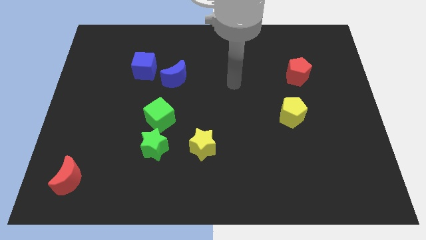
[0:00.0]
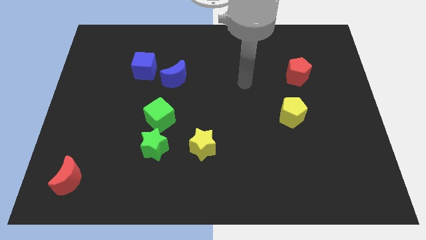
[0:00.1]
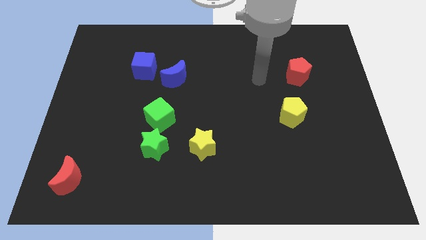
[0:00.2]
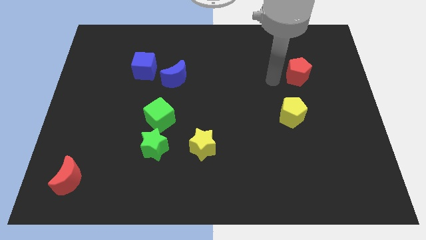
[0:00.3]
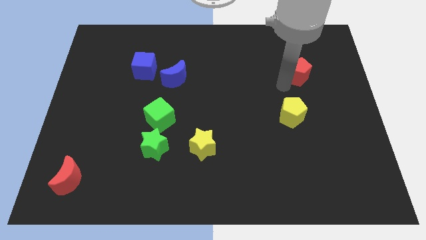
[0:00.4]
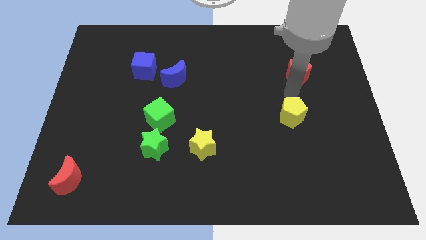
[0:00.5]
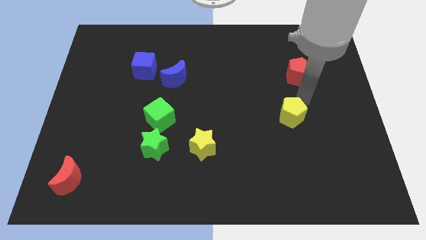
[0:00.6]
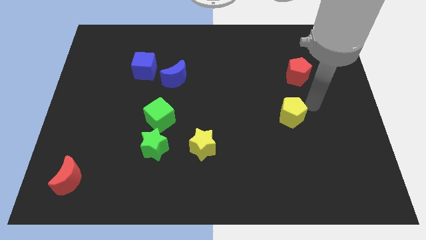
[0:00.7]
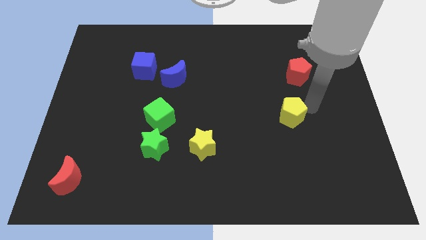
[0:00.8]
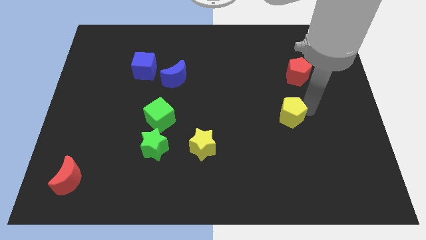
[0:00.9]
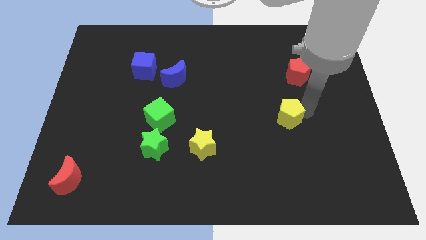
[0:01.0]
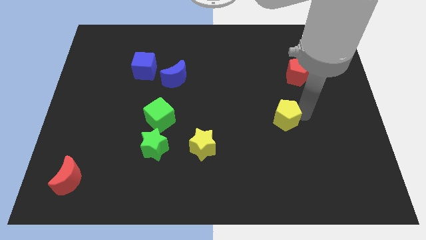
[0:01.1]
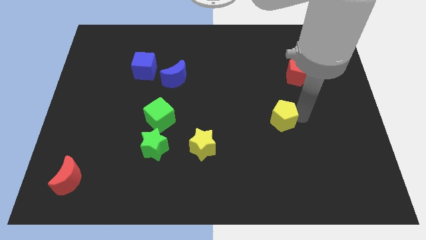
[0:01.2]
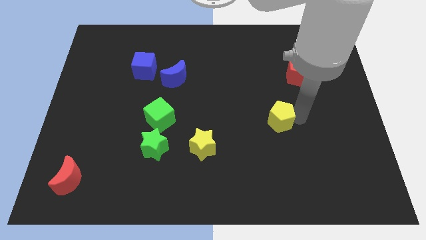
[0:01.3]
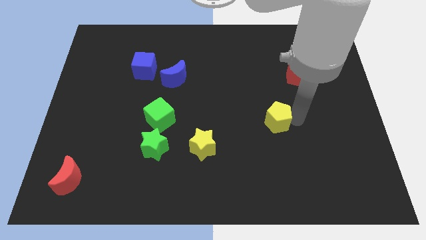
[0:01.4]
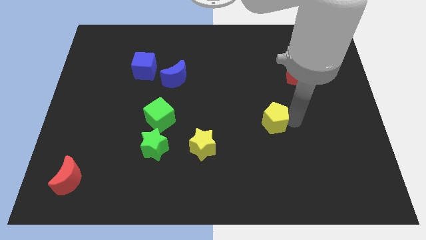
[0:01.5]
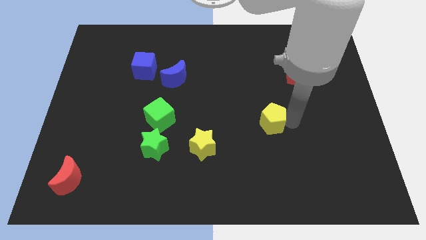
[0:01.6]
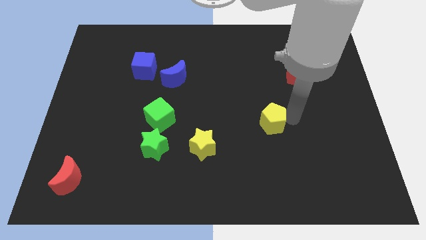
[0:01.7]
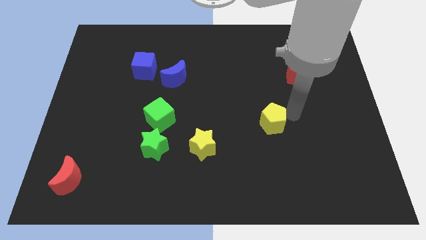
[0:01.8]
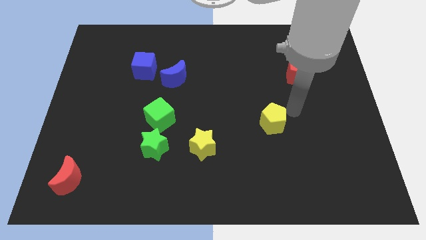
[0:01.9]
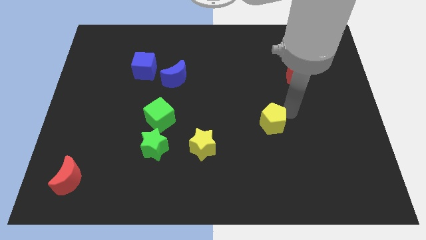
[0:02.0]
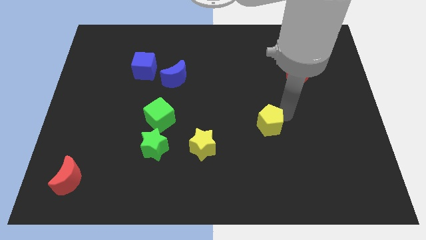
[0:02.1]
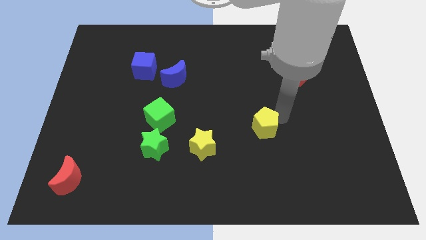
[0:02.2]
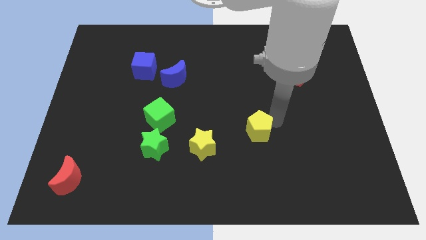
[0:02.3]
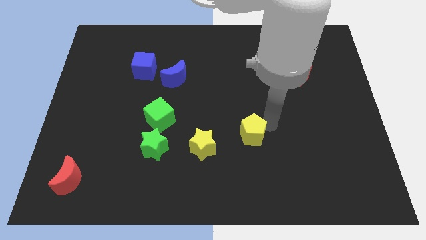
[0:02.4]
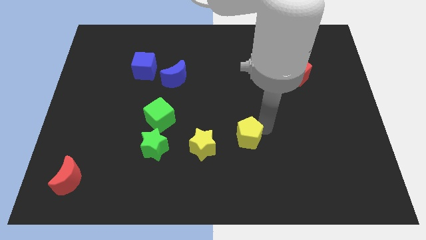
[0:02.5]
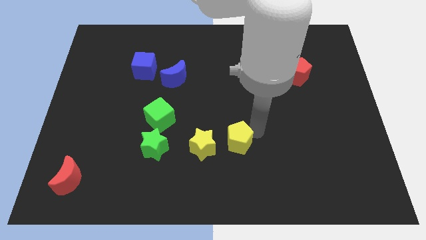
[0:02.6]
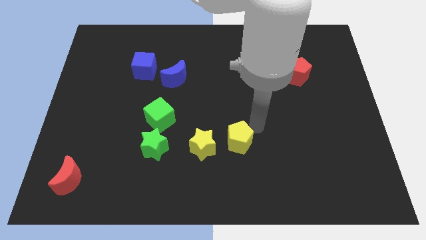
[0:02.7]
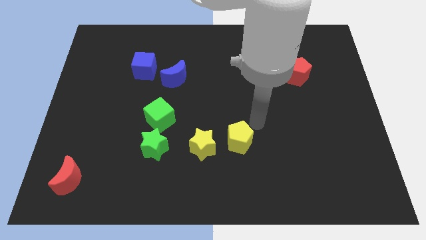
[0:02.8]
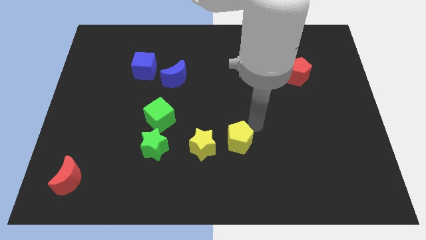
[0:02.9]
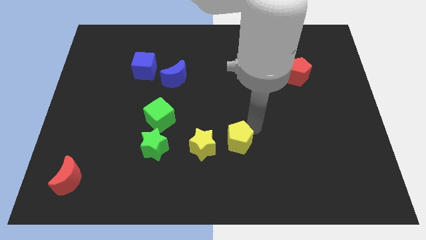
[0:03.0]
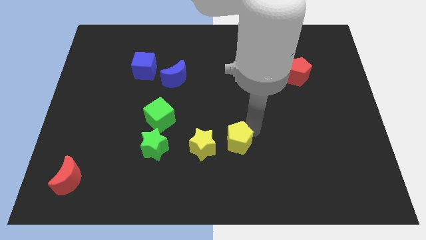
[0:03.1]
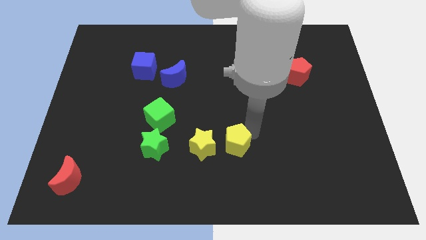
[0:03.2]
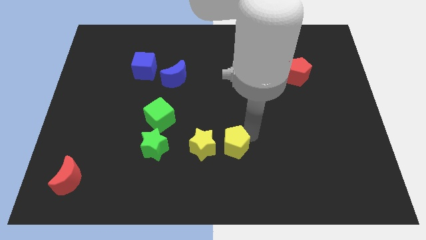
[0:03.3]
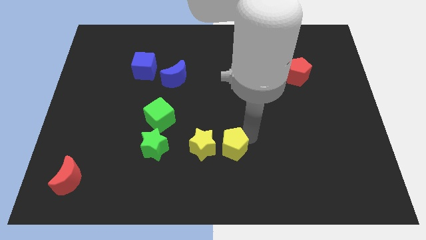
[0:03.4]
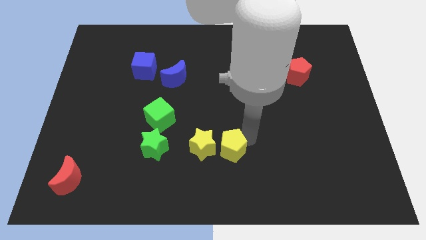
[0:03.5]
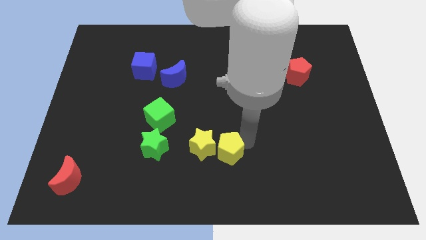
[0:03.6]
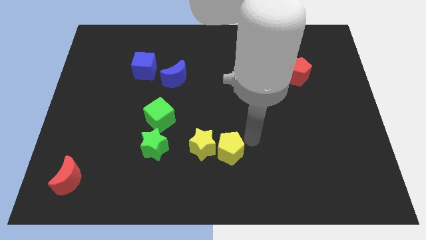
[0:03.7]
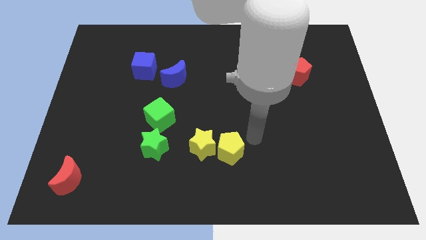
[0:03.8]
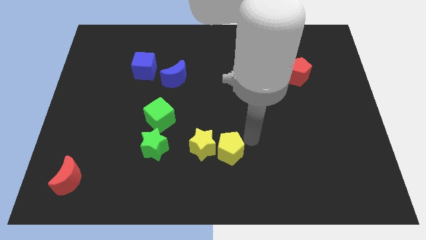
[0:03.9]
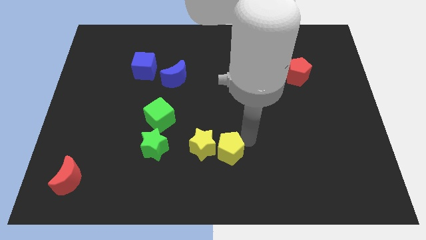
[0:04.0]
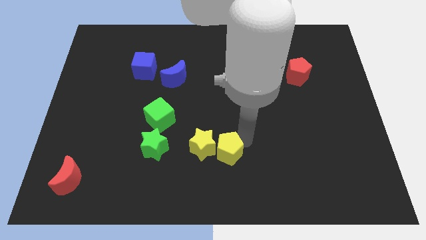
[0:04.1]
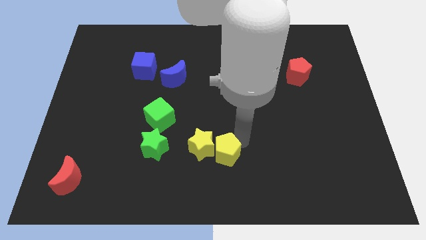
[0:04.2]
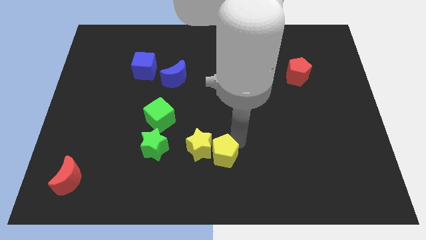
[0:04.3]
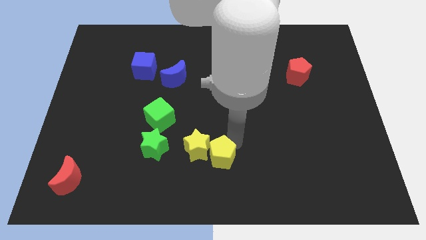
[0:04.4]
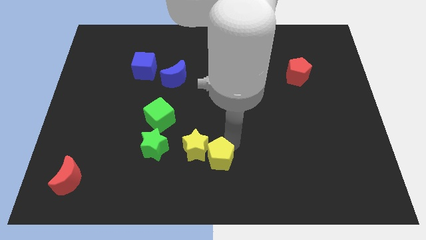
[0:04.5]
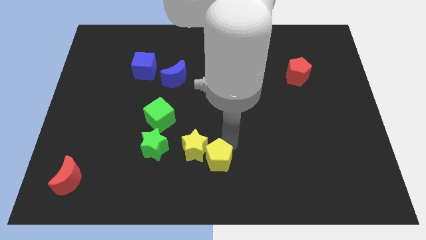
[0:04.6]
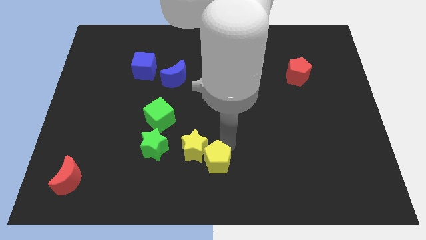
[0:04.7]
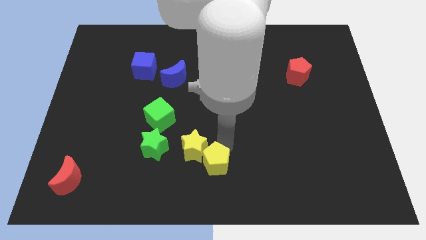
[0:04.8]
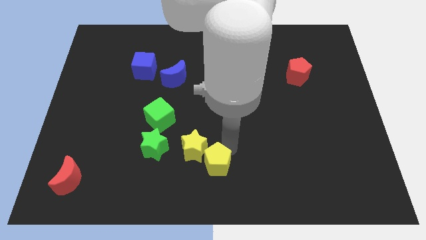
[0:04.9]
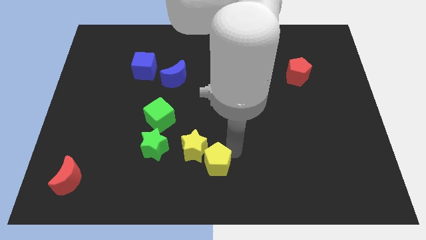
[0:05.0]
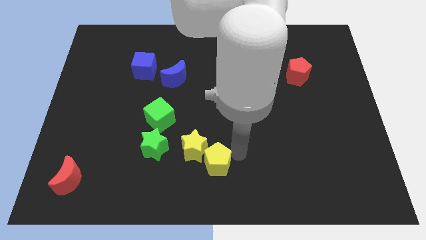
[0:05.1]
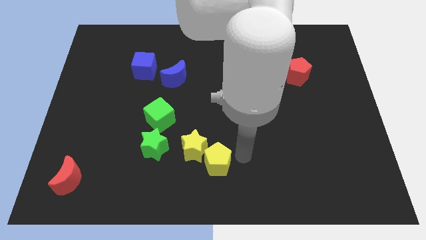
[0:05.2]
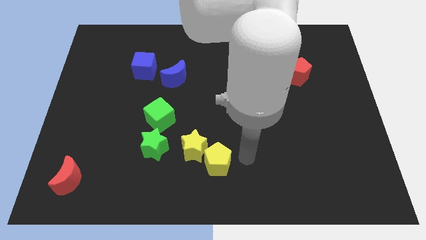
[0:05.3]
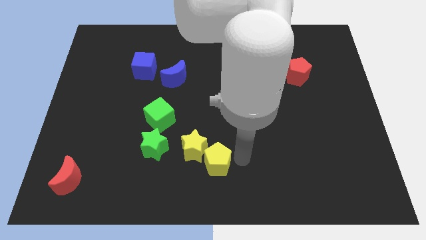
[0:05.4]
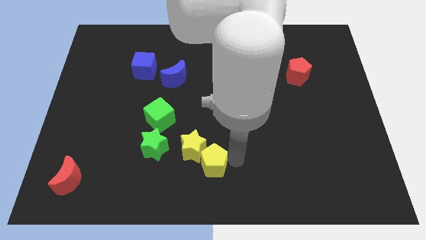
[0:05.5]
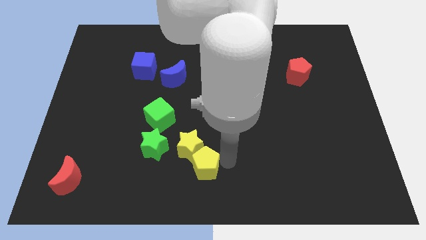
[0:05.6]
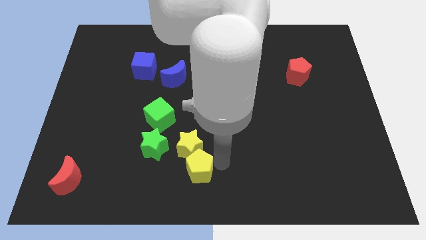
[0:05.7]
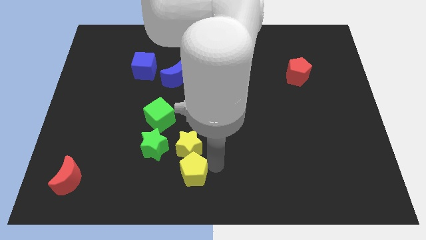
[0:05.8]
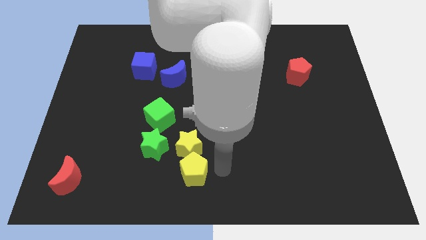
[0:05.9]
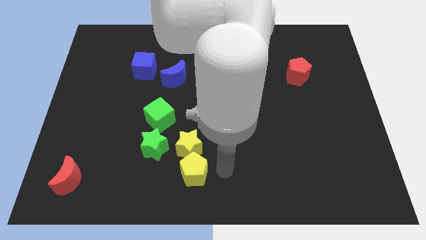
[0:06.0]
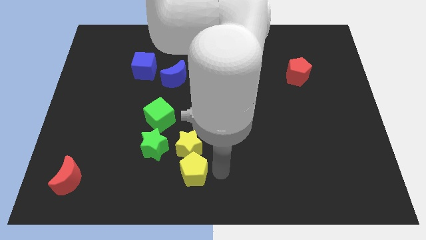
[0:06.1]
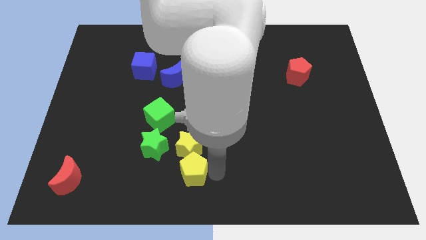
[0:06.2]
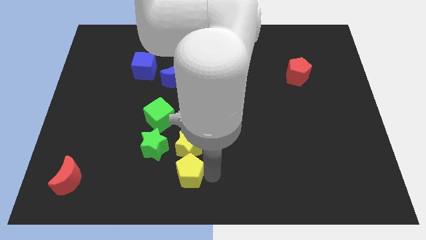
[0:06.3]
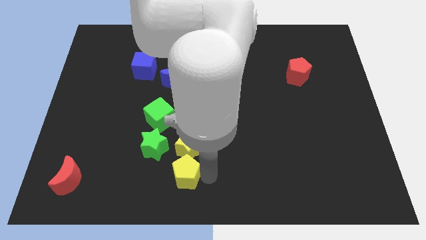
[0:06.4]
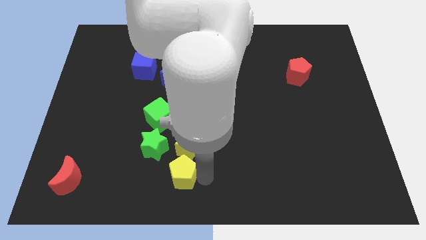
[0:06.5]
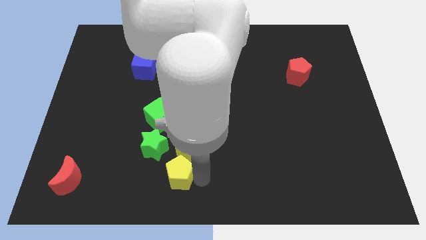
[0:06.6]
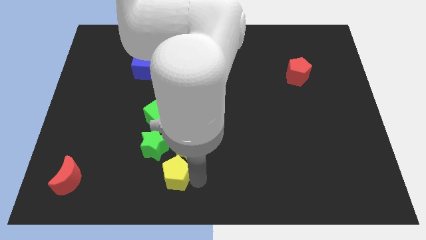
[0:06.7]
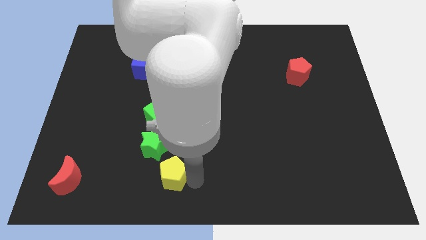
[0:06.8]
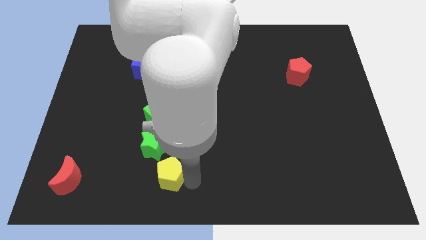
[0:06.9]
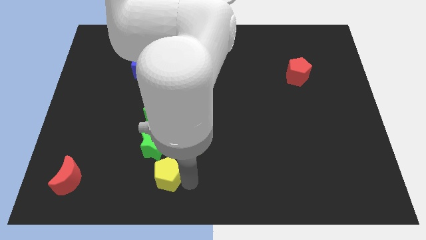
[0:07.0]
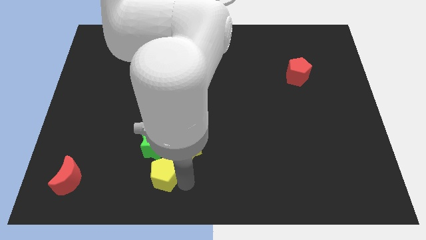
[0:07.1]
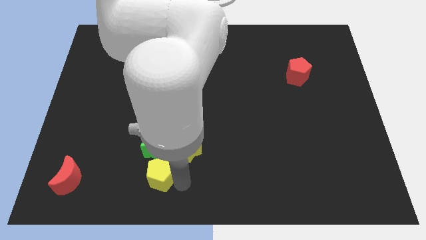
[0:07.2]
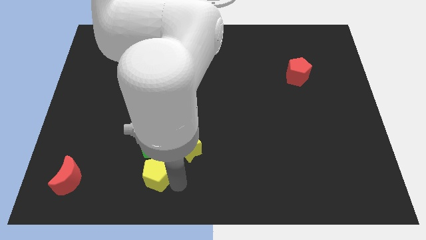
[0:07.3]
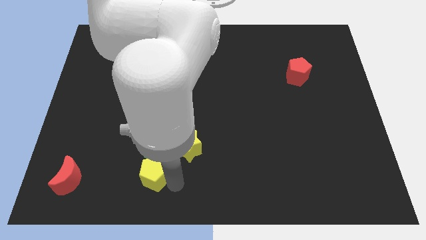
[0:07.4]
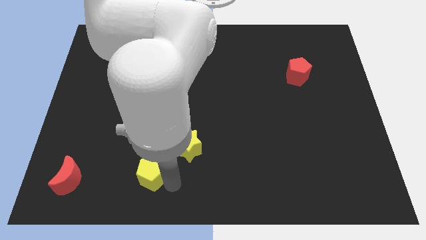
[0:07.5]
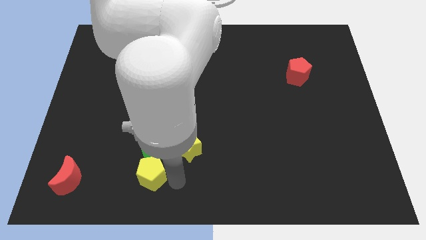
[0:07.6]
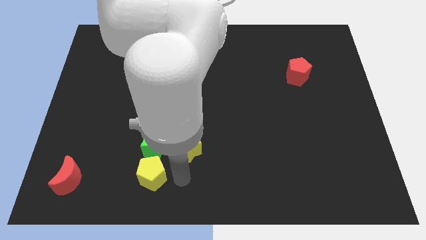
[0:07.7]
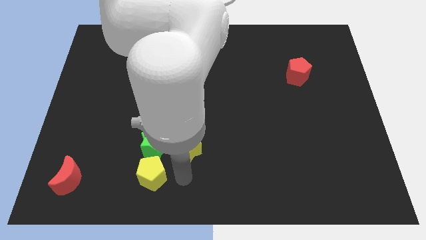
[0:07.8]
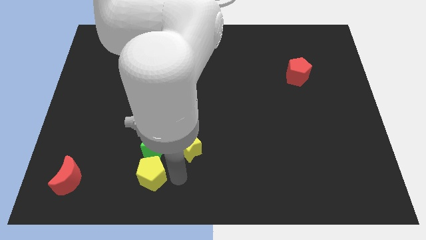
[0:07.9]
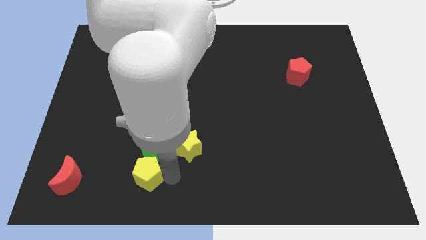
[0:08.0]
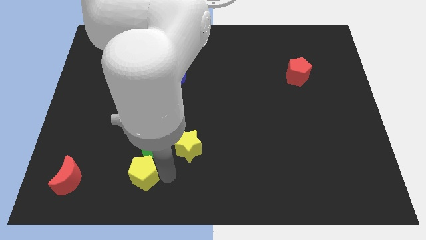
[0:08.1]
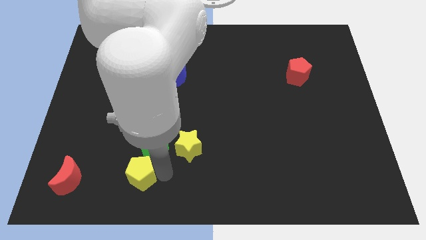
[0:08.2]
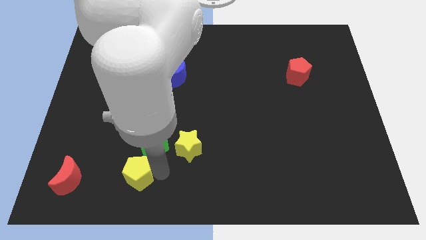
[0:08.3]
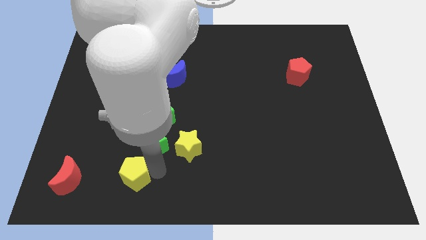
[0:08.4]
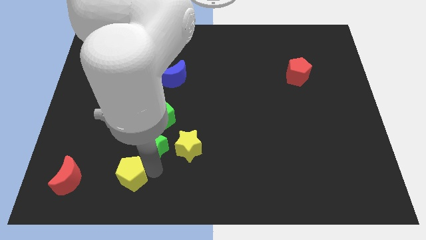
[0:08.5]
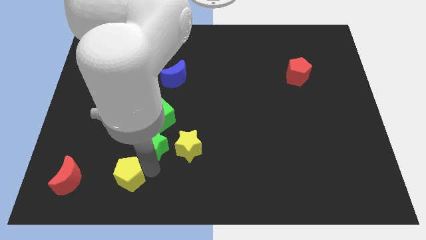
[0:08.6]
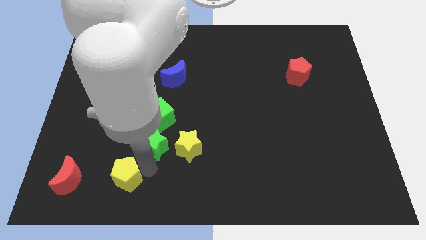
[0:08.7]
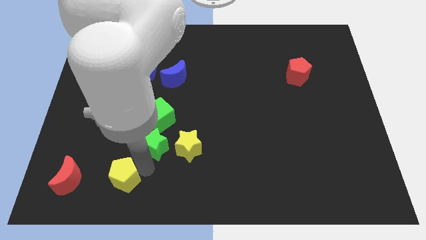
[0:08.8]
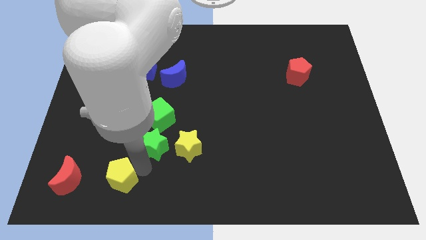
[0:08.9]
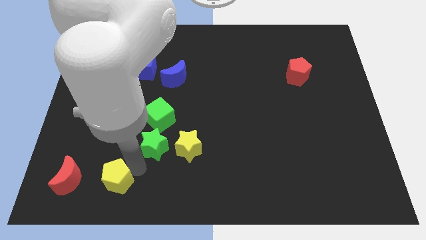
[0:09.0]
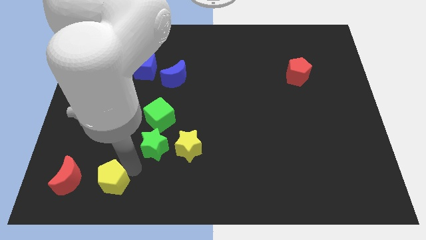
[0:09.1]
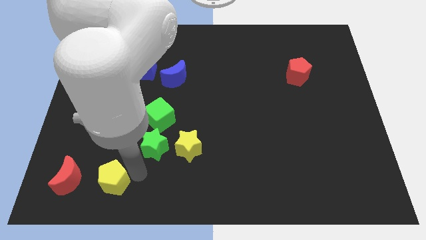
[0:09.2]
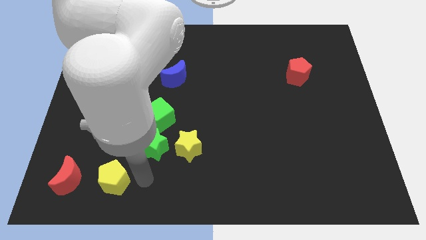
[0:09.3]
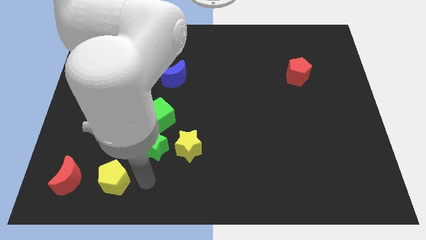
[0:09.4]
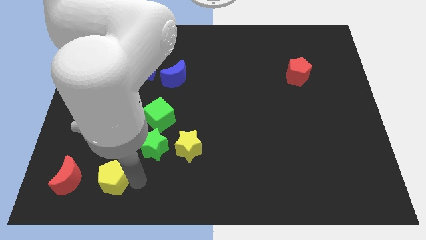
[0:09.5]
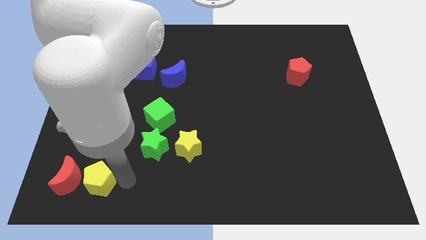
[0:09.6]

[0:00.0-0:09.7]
put the yellow pentagon towards the red moon
